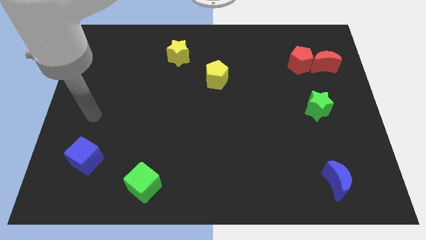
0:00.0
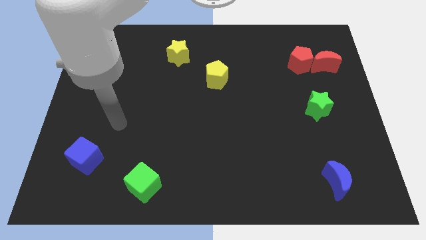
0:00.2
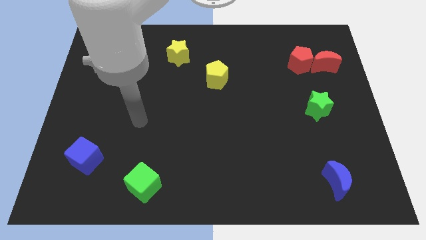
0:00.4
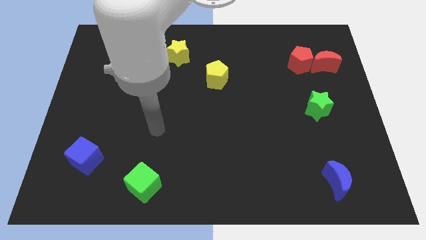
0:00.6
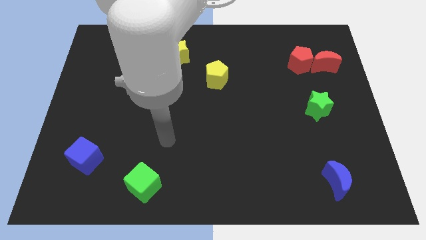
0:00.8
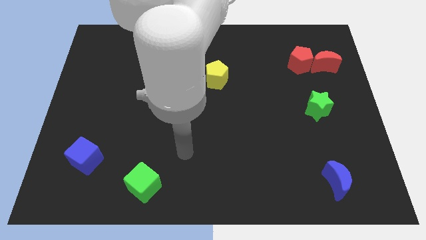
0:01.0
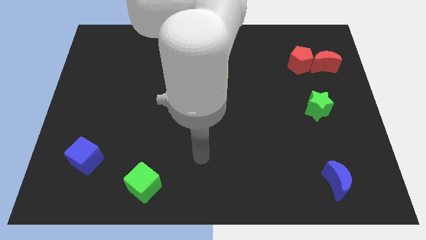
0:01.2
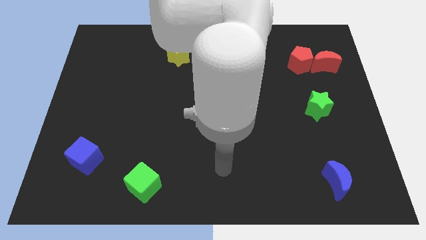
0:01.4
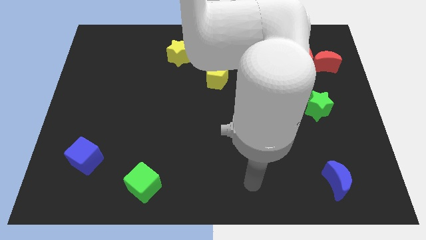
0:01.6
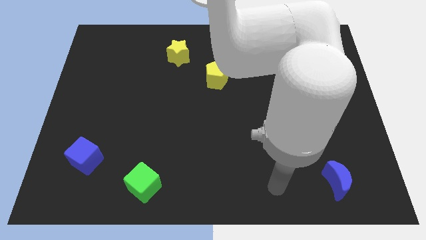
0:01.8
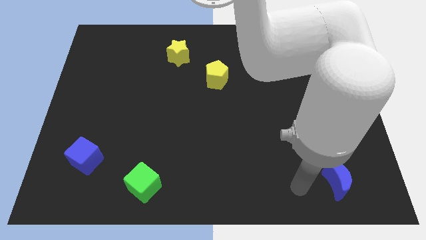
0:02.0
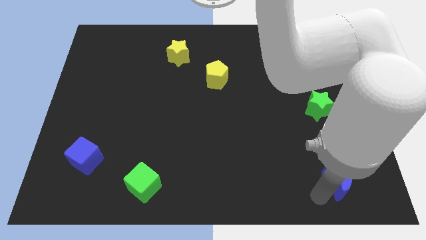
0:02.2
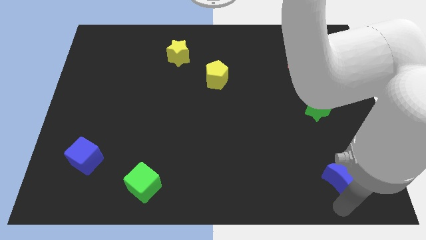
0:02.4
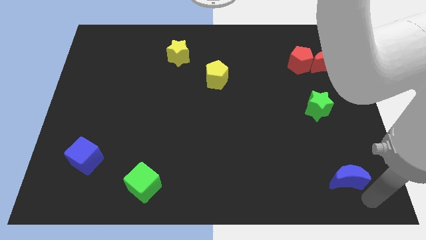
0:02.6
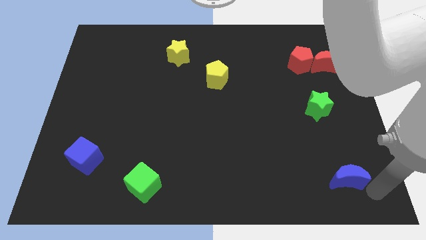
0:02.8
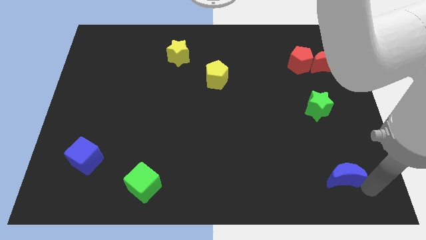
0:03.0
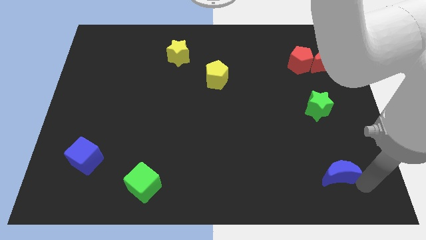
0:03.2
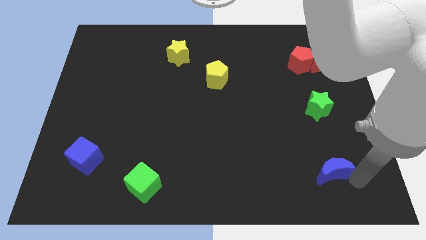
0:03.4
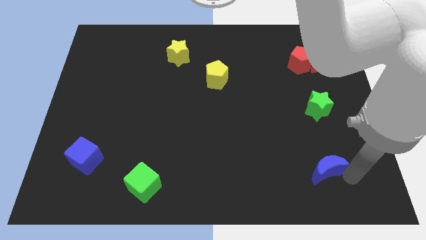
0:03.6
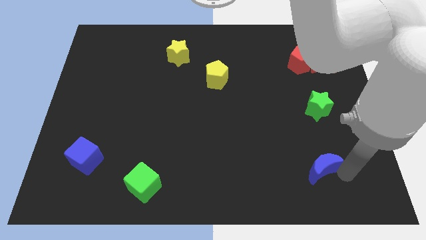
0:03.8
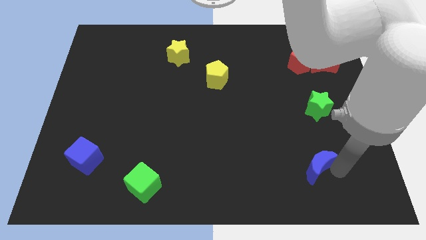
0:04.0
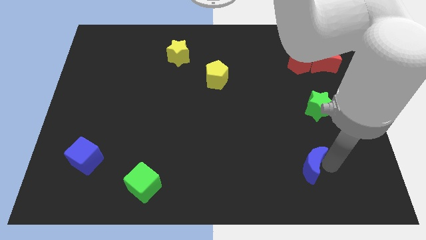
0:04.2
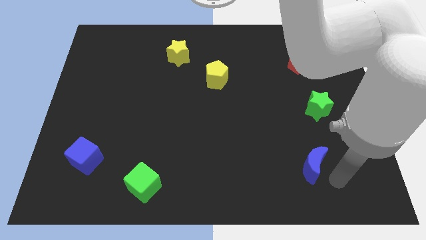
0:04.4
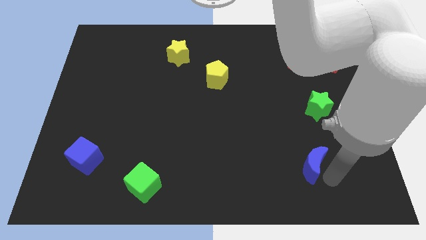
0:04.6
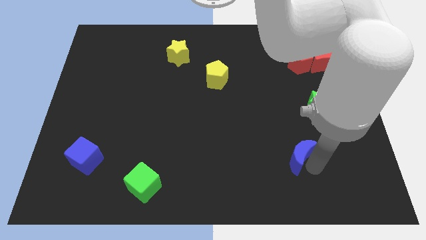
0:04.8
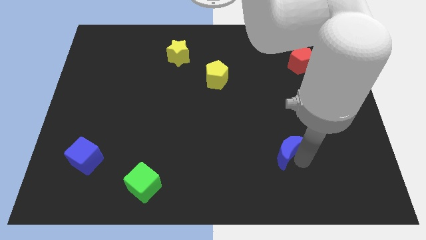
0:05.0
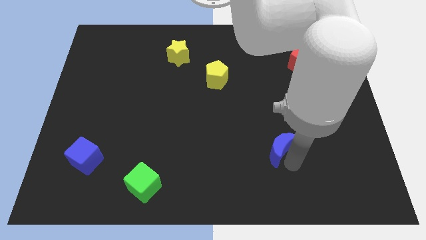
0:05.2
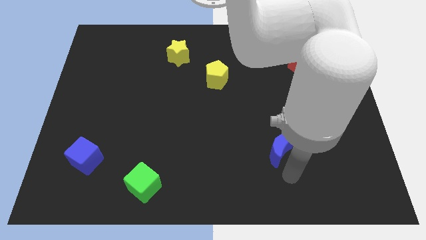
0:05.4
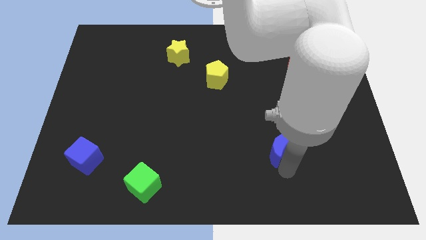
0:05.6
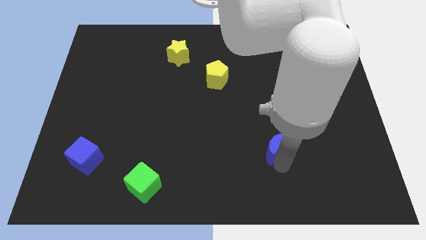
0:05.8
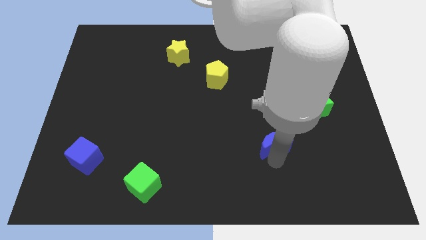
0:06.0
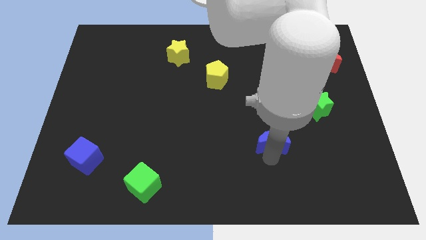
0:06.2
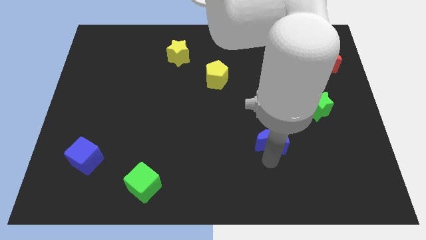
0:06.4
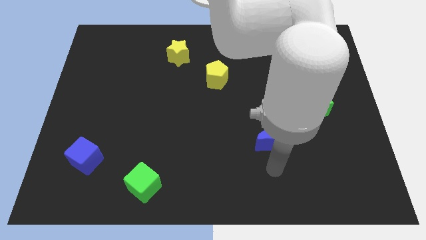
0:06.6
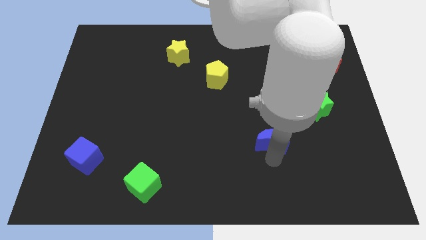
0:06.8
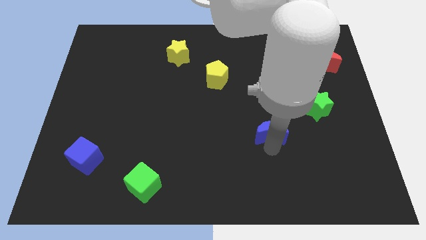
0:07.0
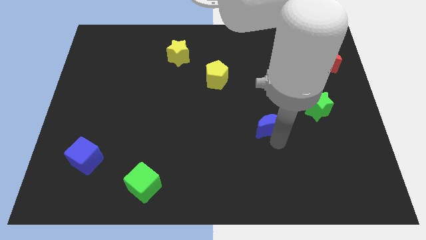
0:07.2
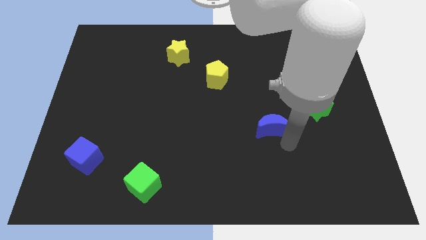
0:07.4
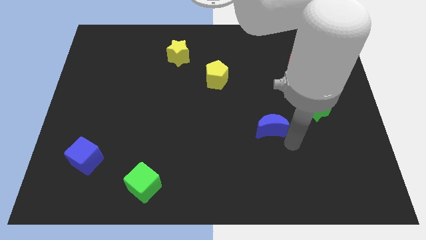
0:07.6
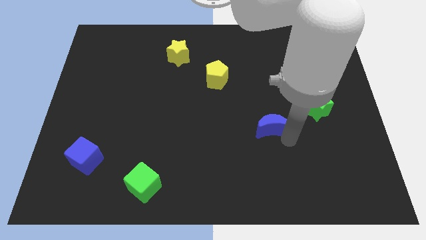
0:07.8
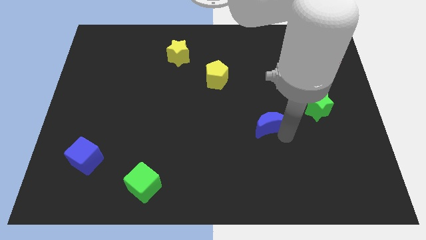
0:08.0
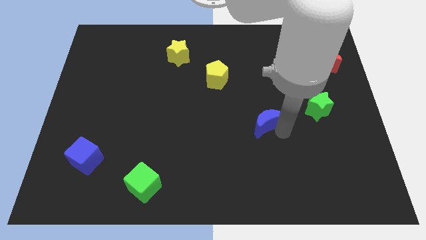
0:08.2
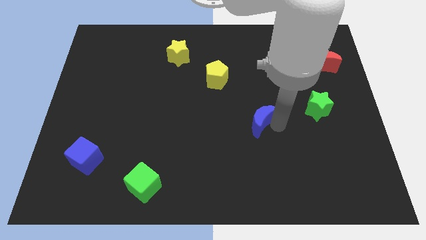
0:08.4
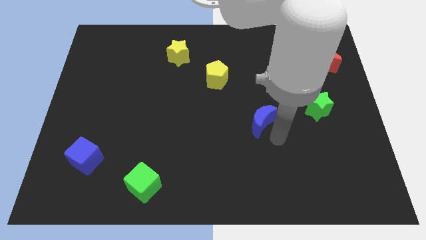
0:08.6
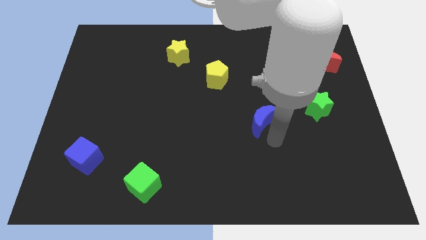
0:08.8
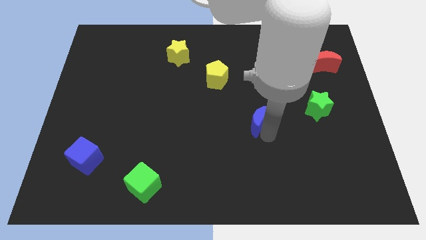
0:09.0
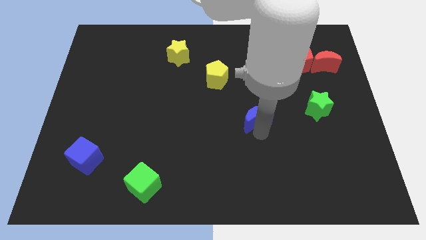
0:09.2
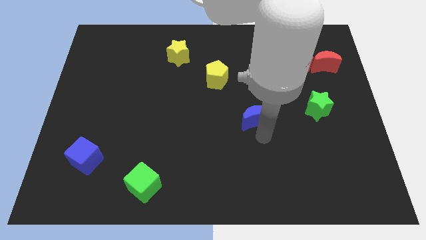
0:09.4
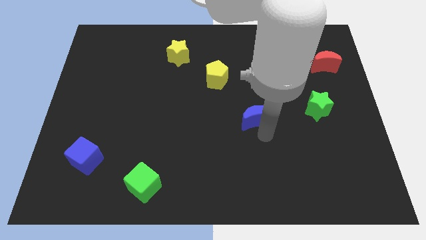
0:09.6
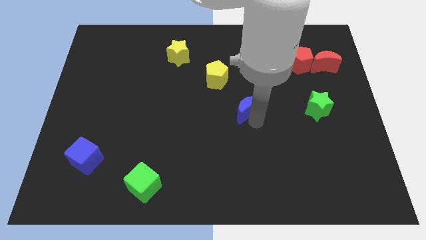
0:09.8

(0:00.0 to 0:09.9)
put the blue moon to the bottom right of the yellow pentagon

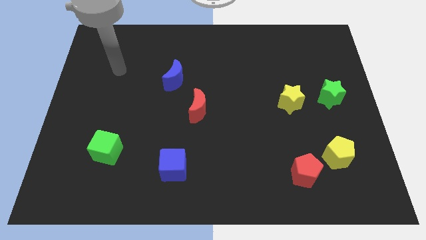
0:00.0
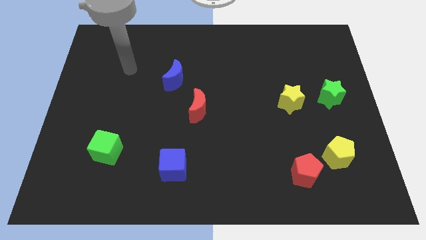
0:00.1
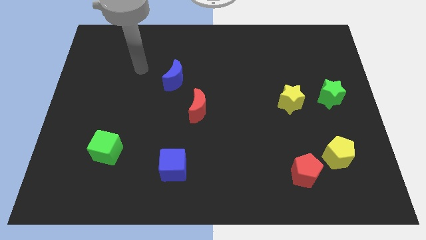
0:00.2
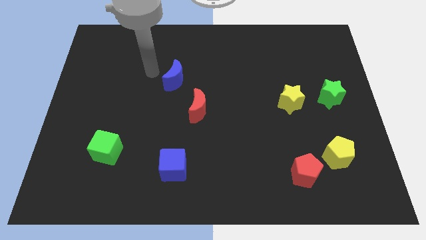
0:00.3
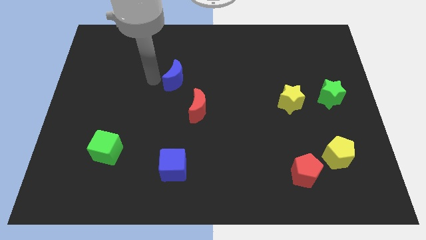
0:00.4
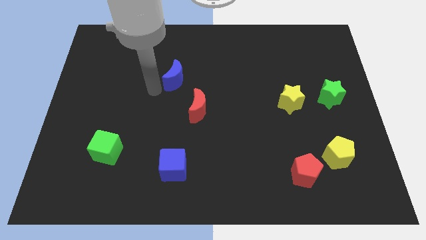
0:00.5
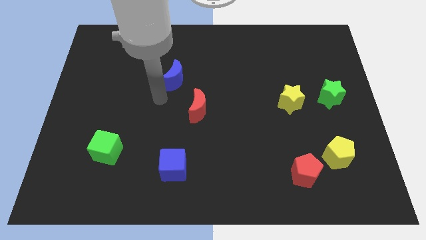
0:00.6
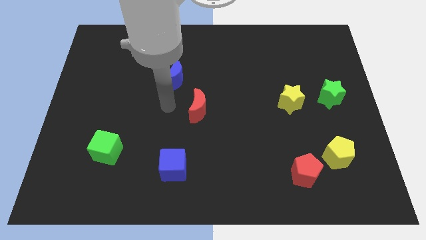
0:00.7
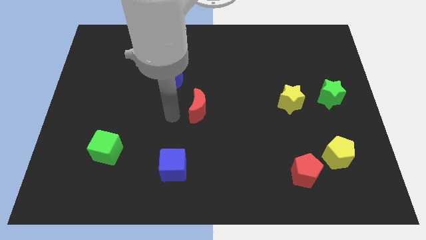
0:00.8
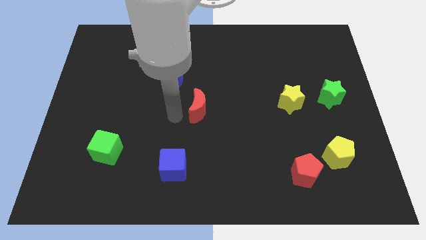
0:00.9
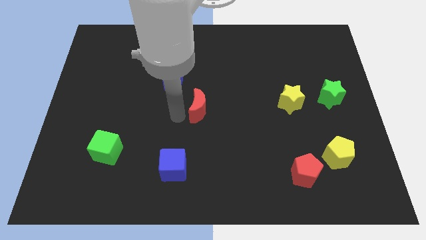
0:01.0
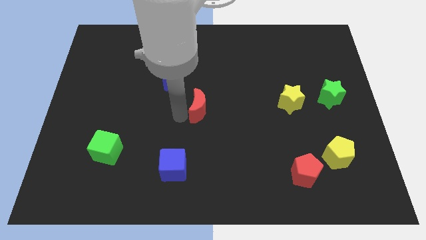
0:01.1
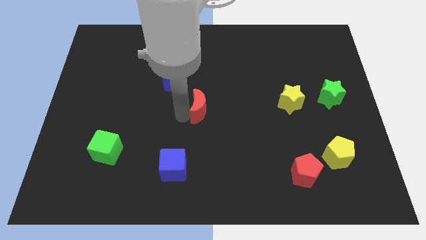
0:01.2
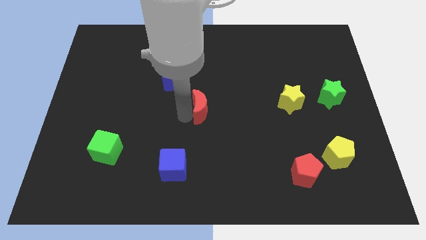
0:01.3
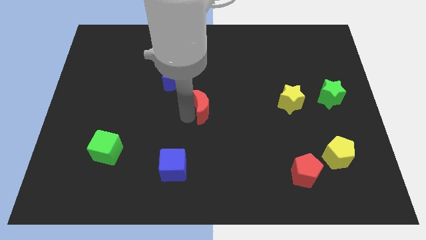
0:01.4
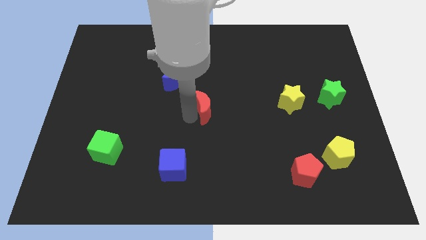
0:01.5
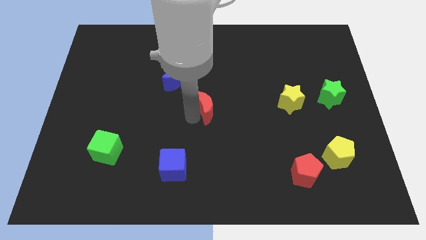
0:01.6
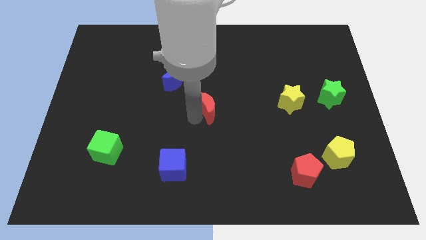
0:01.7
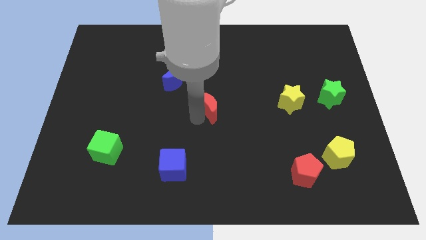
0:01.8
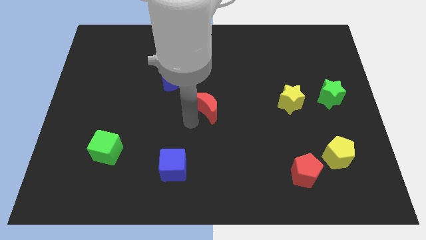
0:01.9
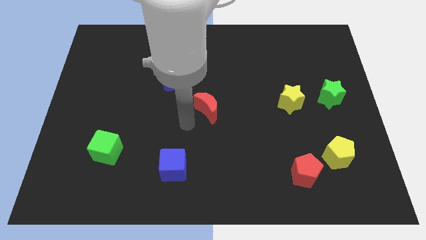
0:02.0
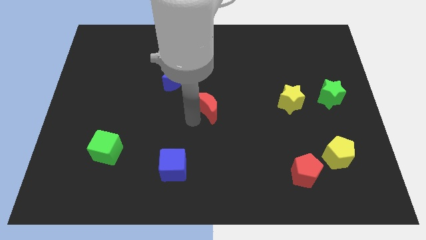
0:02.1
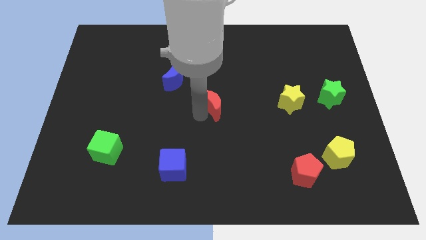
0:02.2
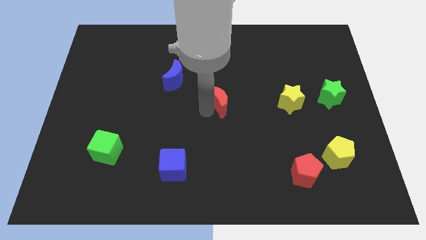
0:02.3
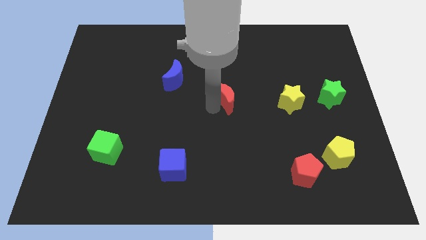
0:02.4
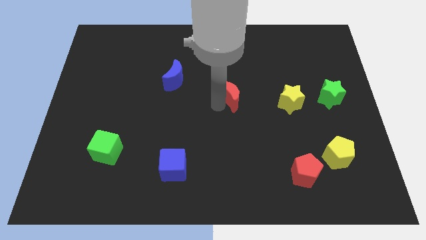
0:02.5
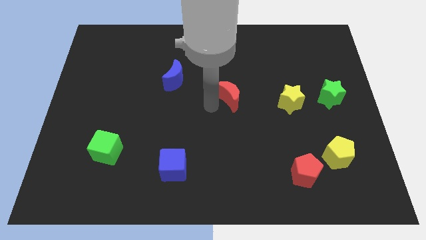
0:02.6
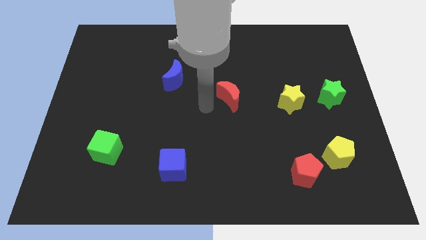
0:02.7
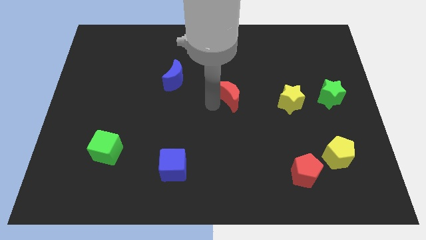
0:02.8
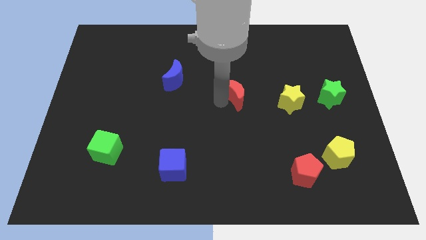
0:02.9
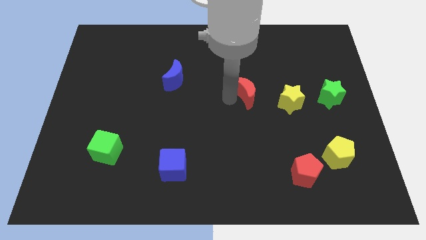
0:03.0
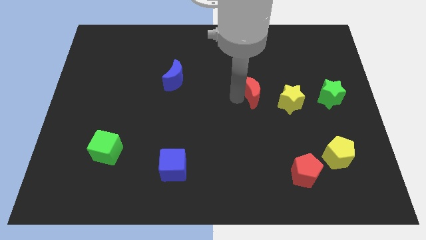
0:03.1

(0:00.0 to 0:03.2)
put the red moon to the top left of the yellow star
